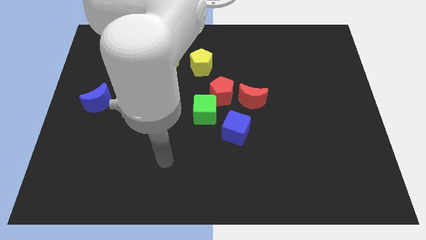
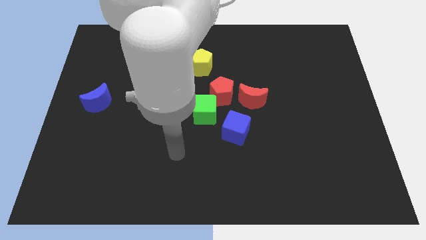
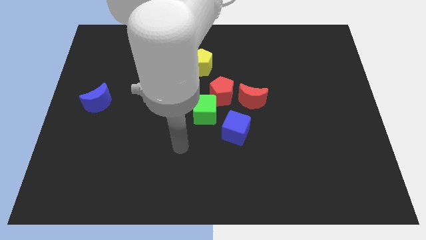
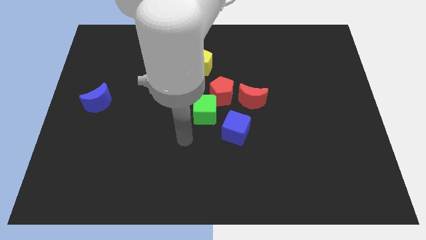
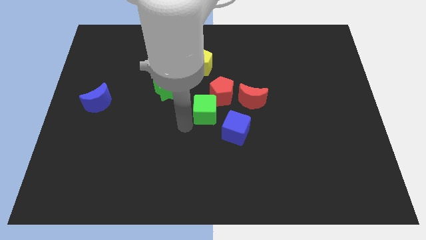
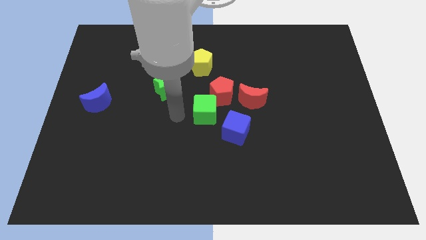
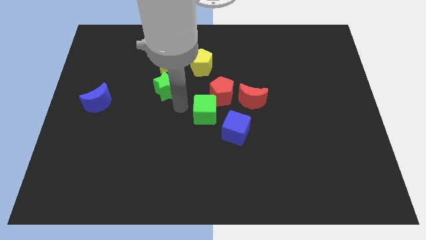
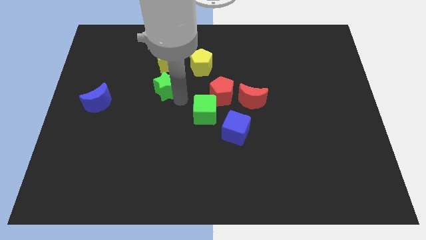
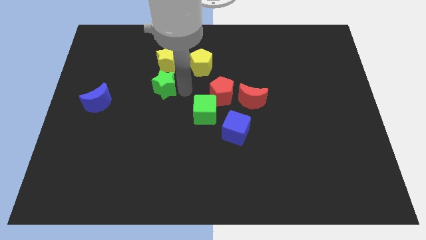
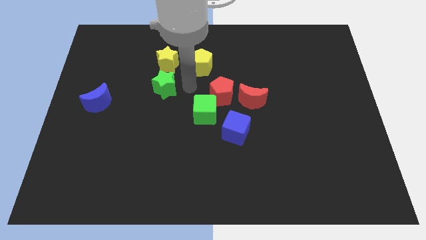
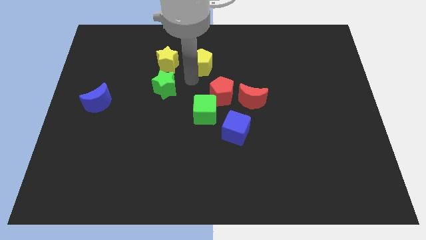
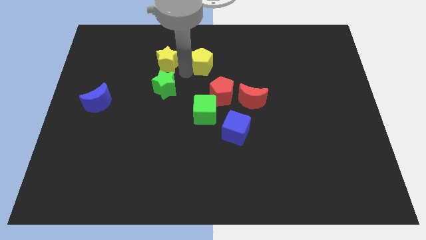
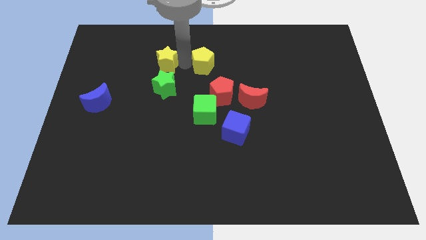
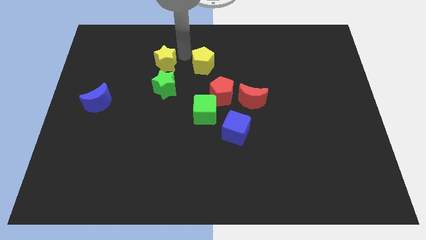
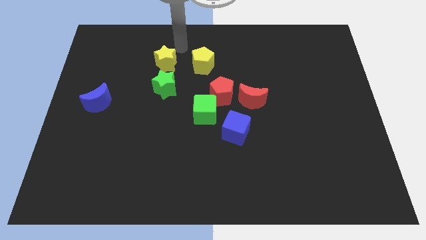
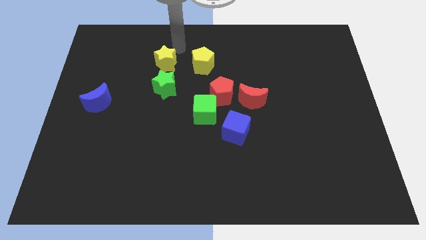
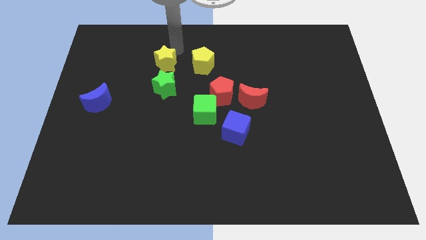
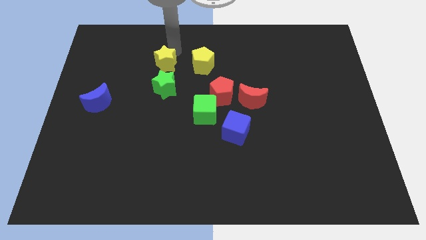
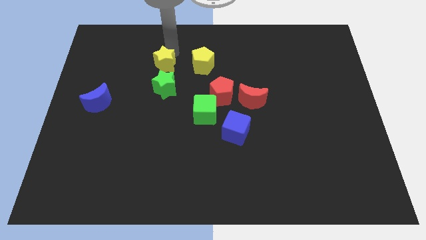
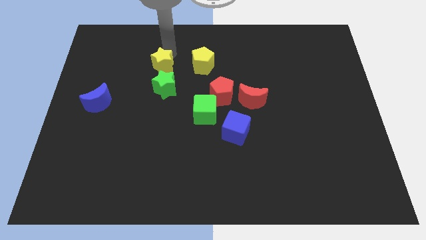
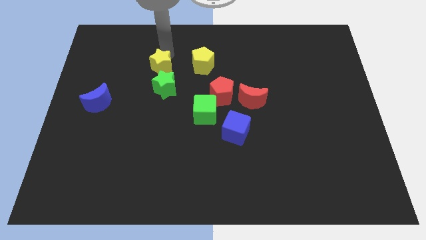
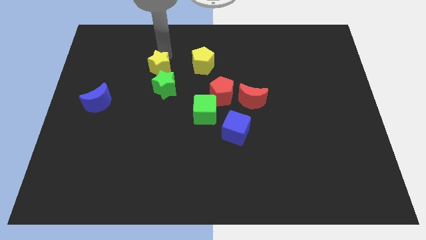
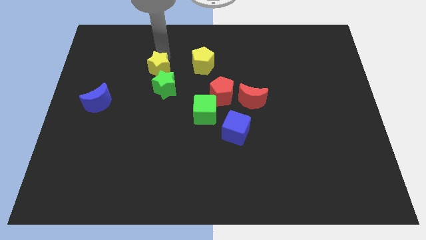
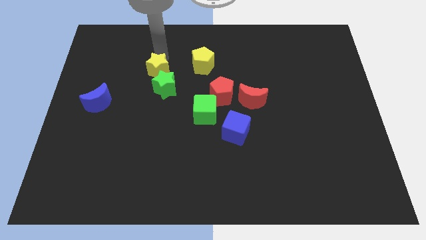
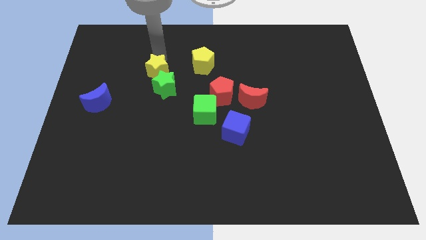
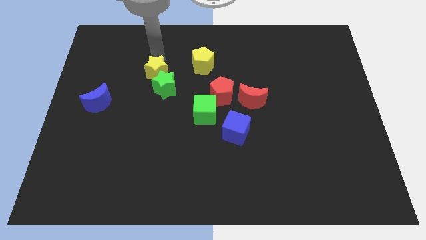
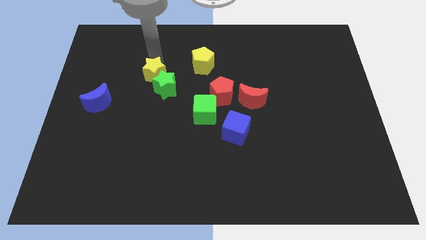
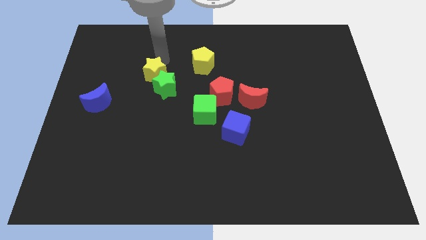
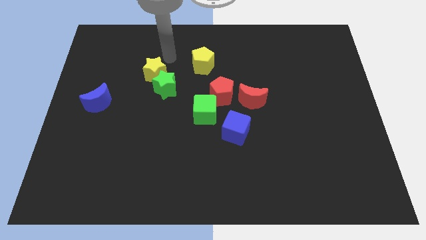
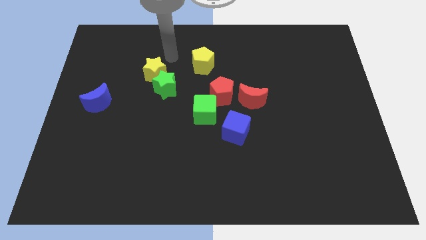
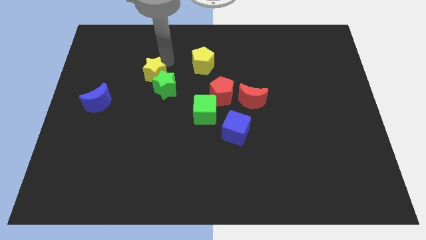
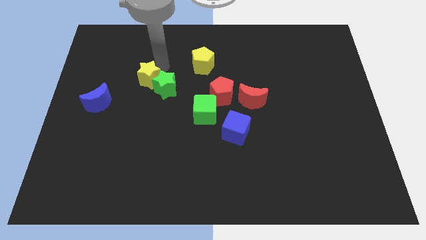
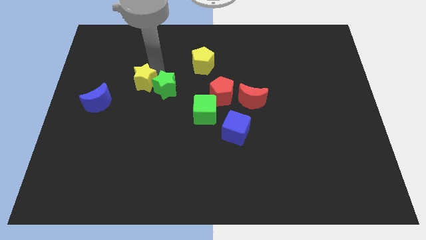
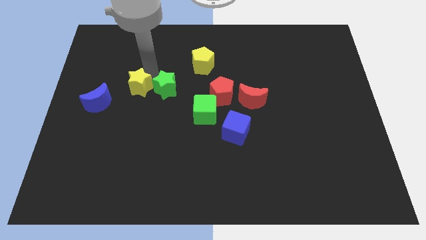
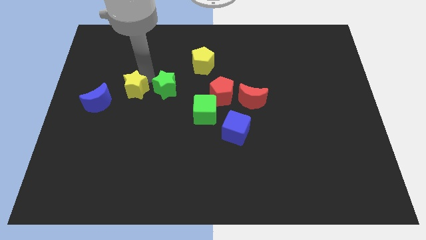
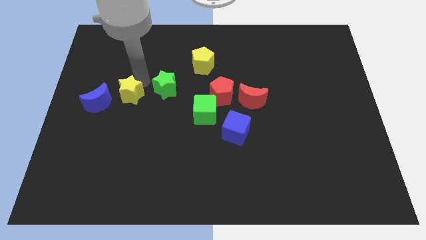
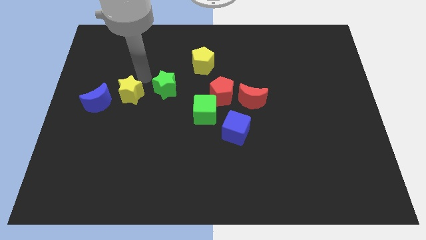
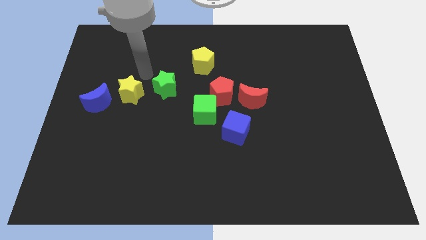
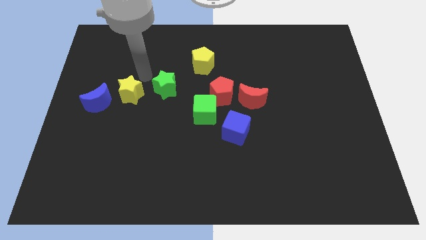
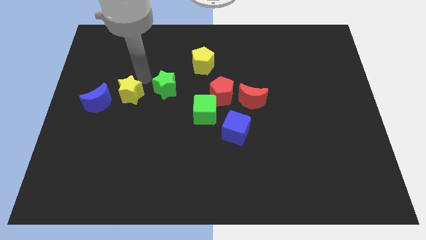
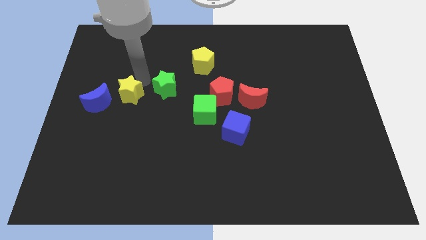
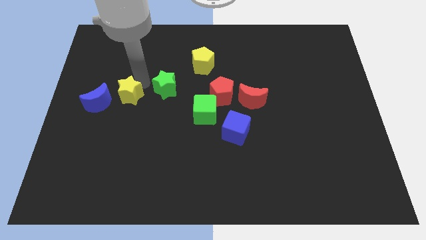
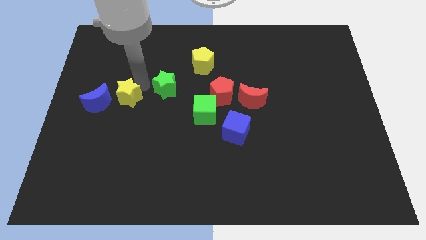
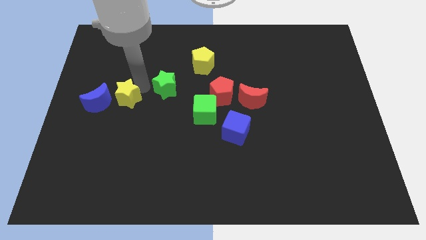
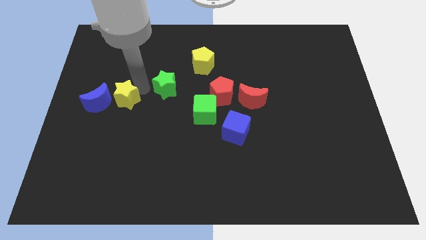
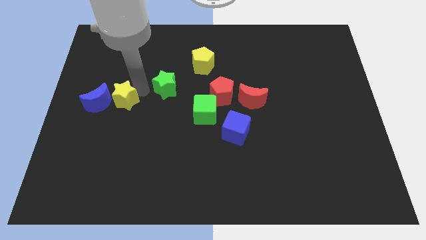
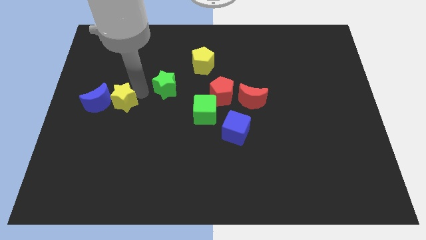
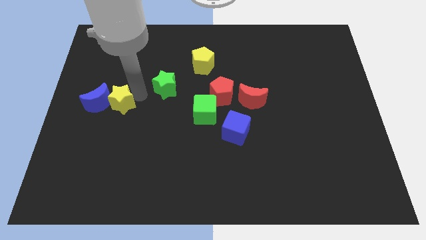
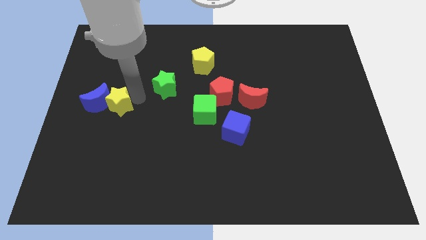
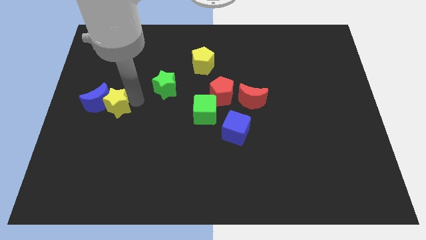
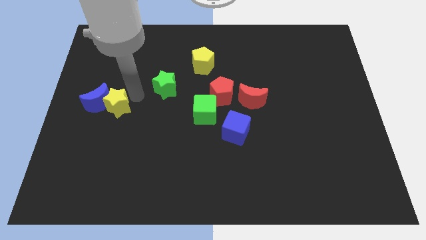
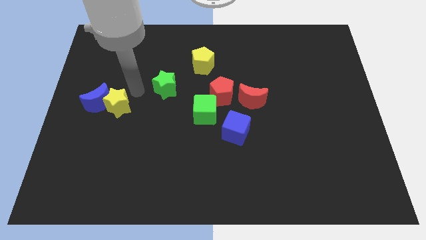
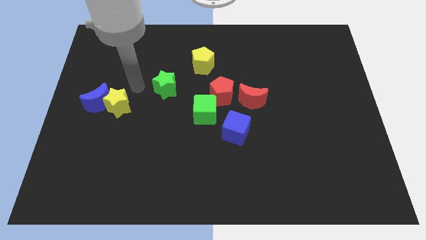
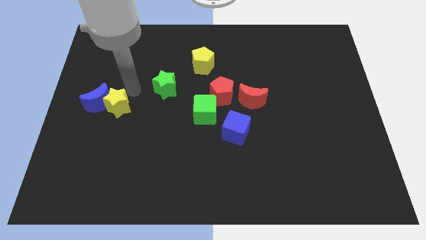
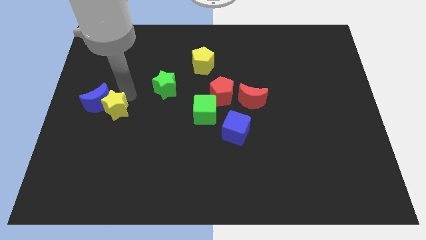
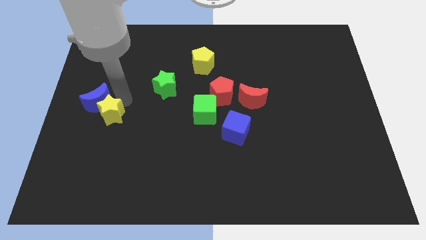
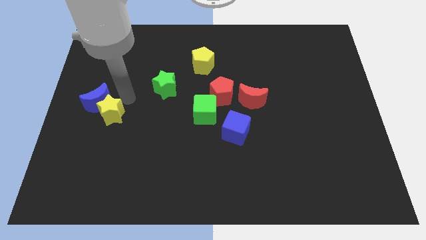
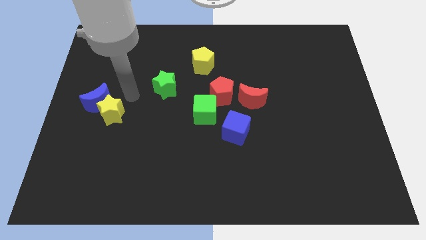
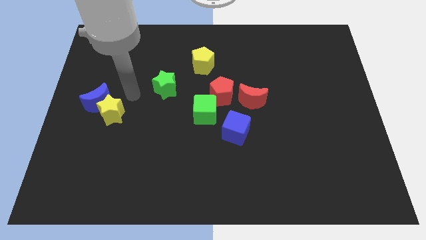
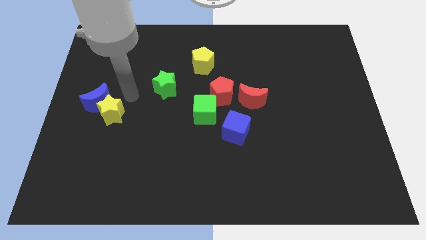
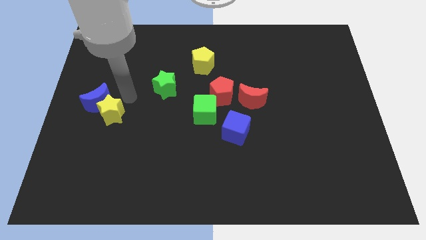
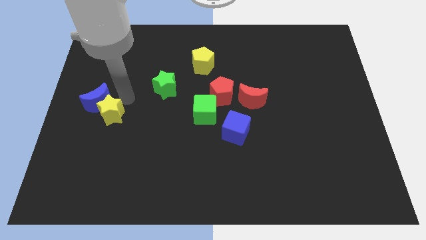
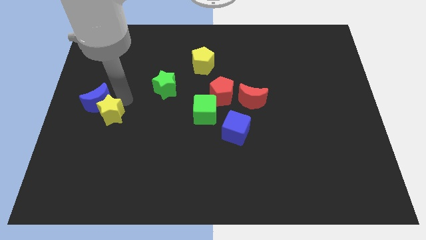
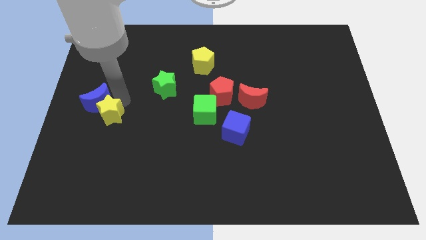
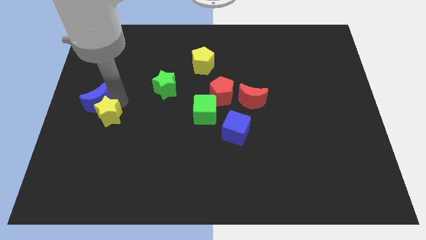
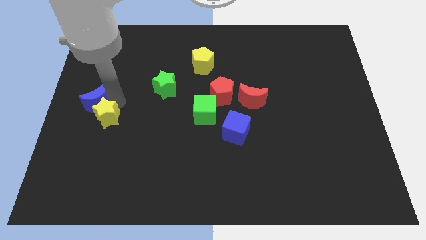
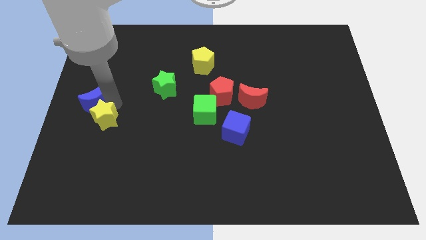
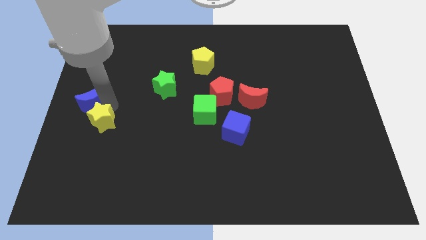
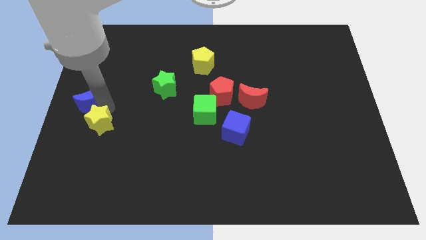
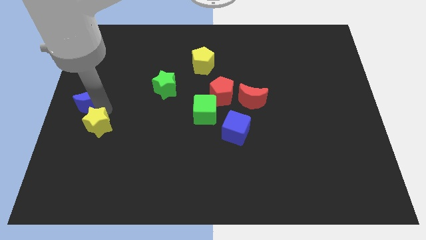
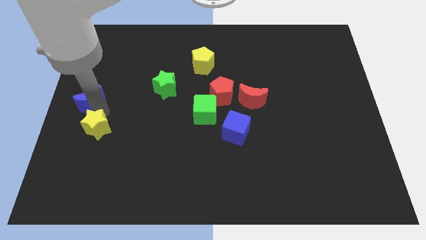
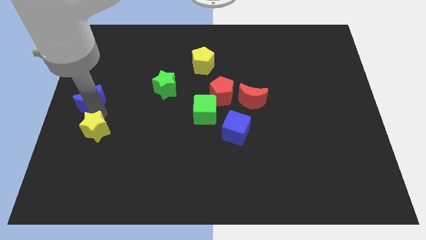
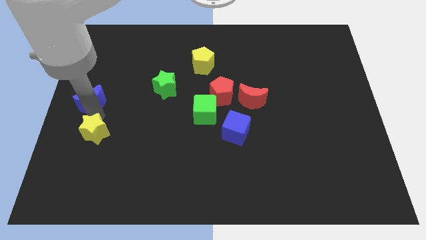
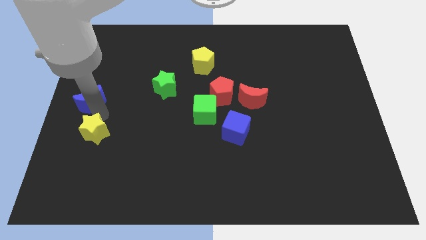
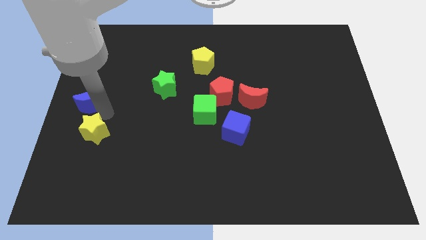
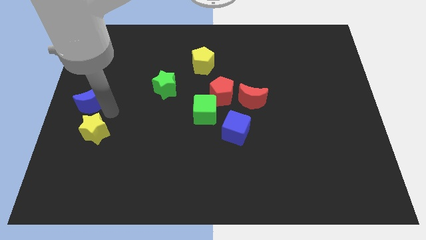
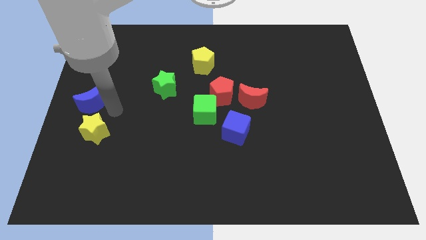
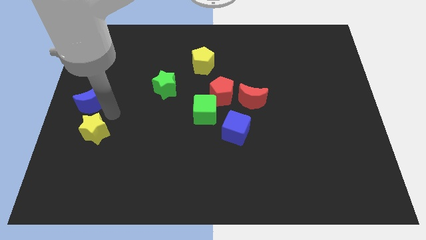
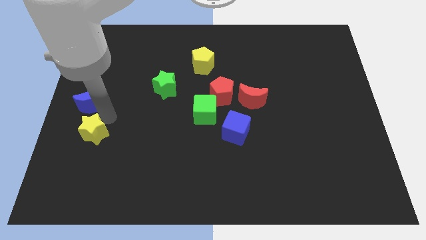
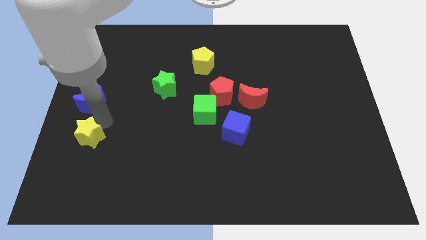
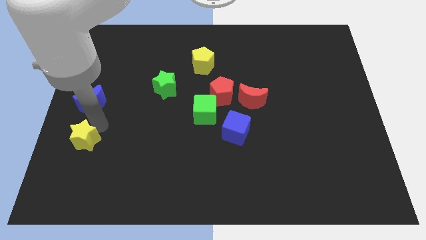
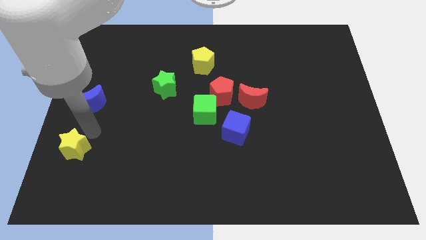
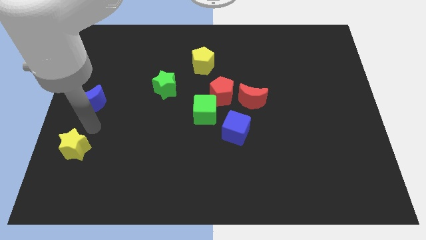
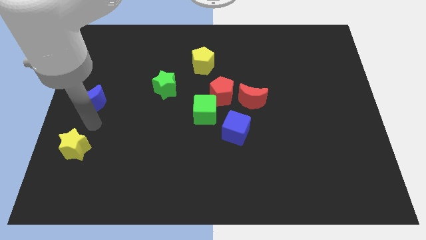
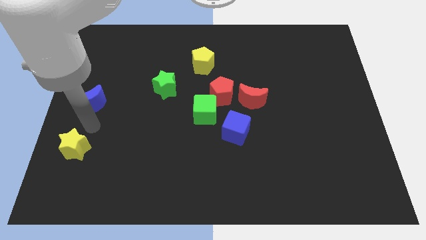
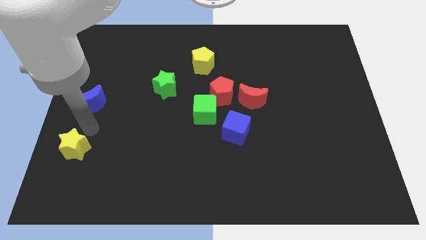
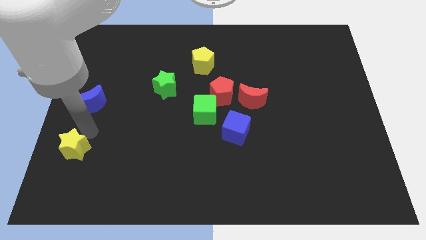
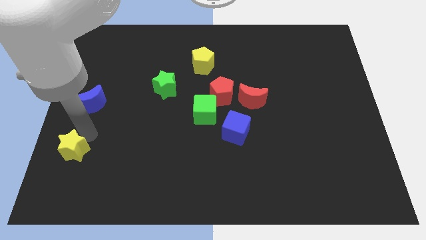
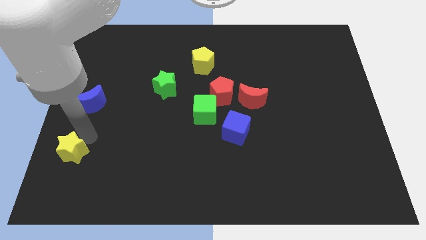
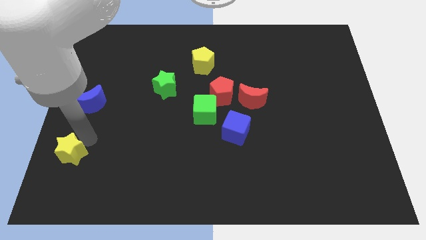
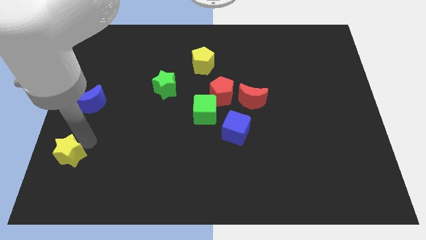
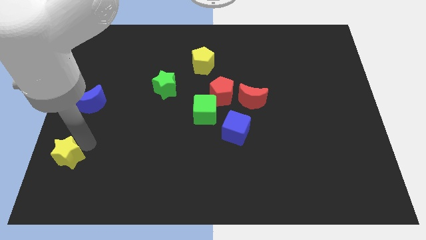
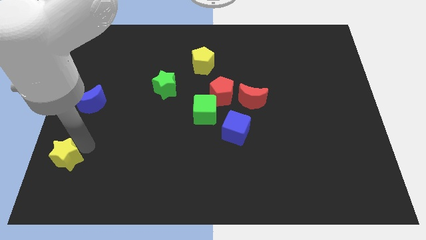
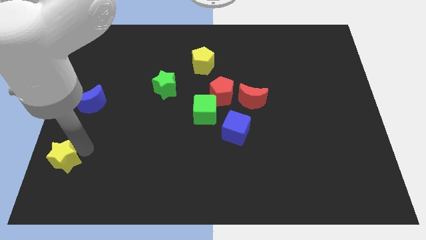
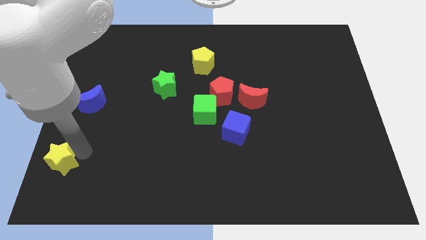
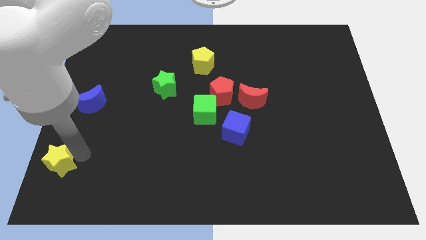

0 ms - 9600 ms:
move the yellow star to the bottom left corner
